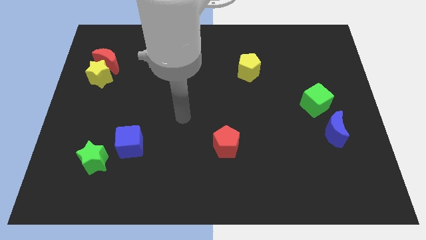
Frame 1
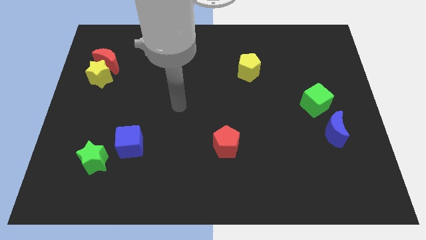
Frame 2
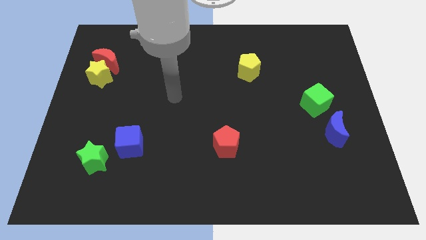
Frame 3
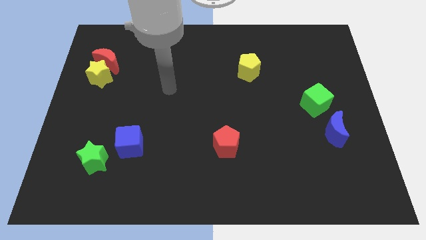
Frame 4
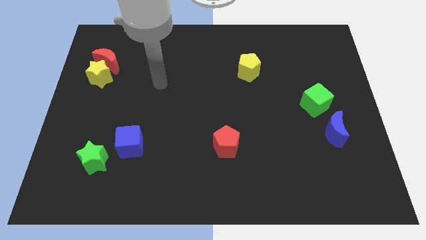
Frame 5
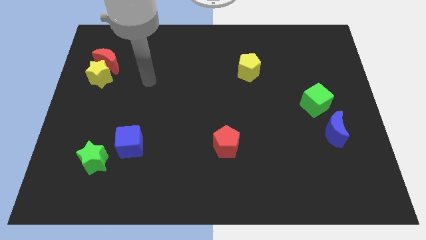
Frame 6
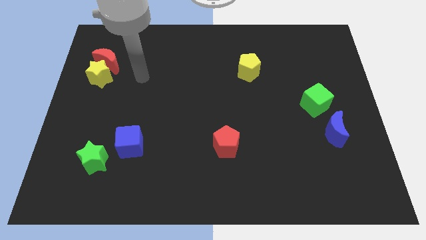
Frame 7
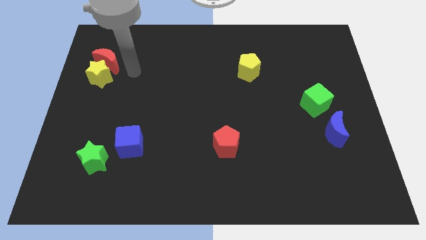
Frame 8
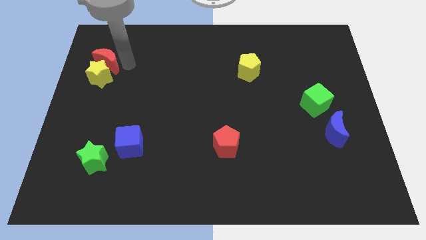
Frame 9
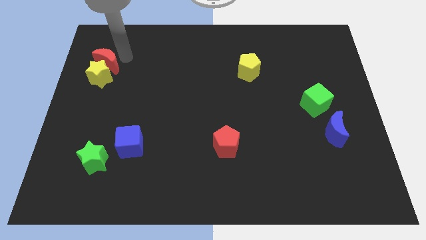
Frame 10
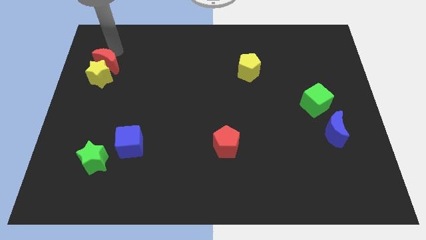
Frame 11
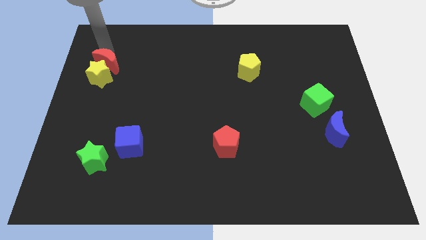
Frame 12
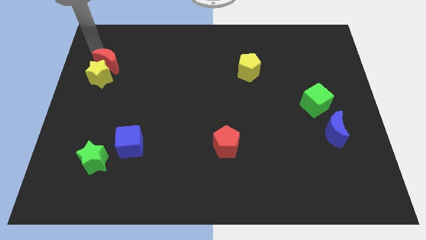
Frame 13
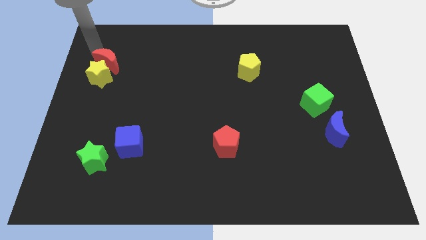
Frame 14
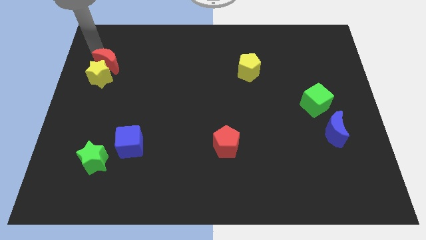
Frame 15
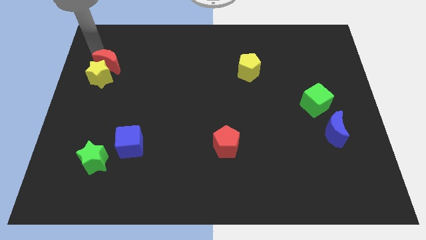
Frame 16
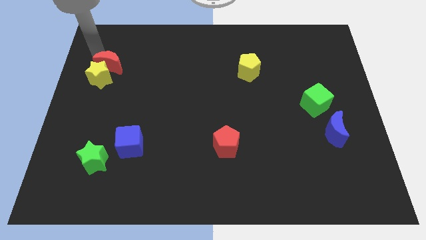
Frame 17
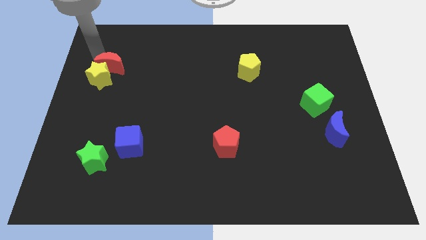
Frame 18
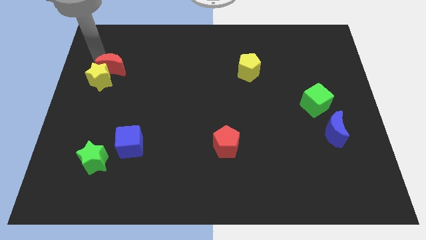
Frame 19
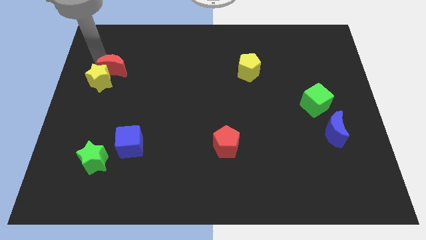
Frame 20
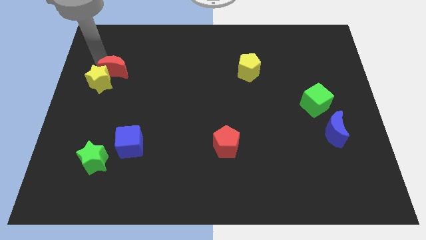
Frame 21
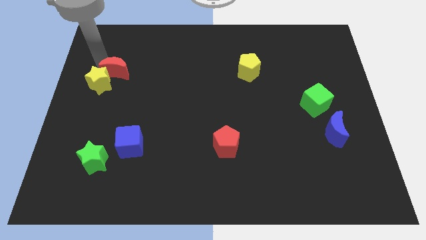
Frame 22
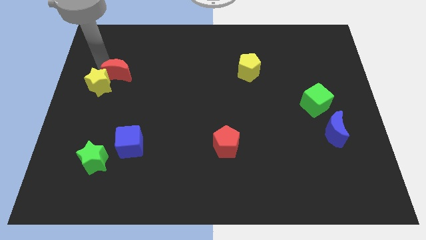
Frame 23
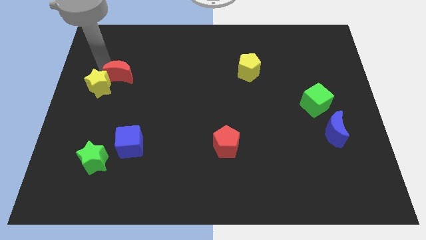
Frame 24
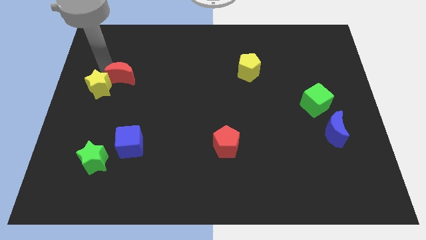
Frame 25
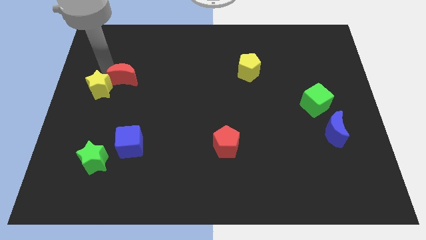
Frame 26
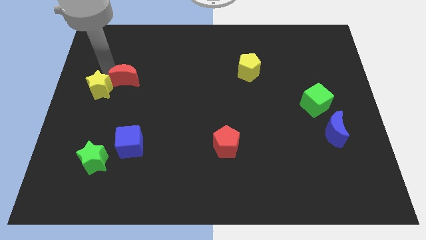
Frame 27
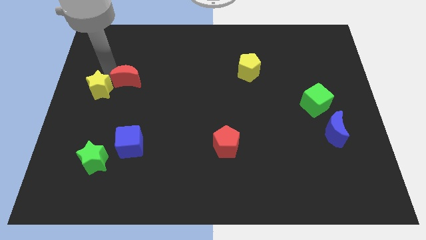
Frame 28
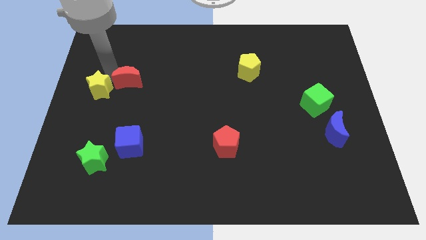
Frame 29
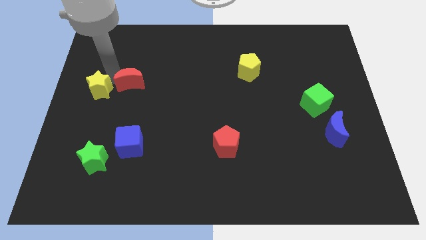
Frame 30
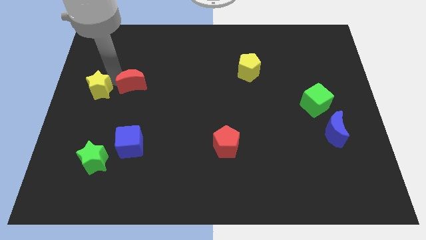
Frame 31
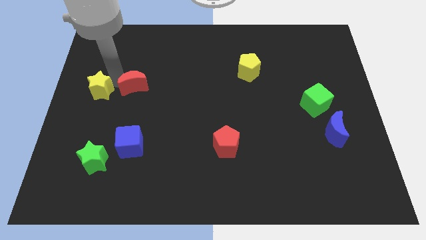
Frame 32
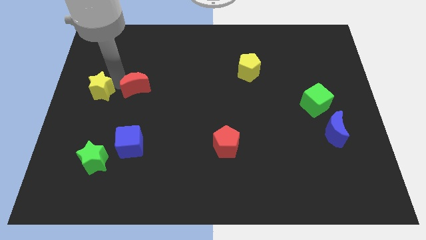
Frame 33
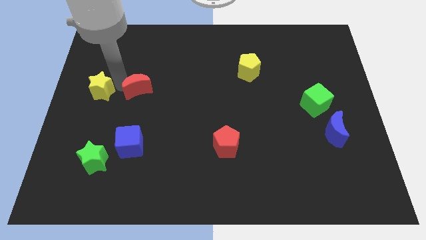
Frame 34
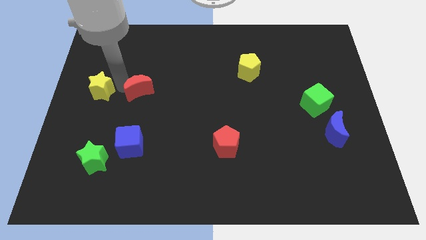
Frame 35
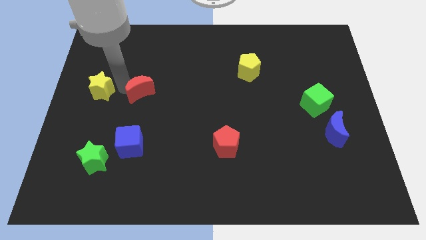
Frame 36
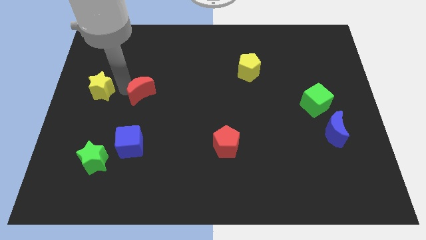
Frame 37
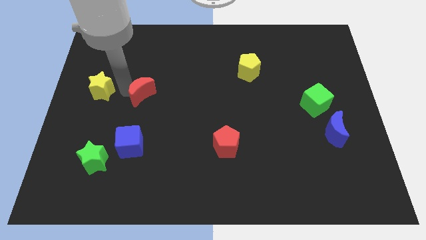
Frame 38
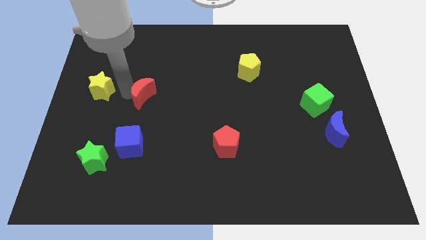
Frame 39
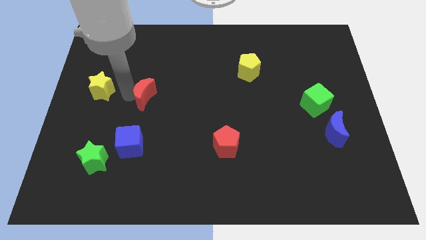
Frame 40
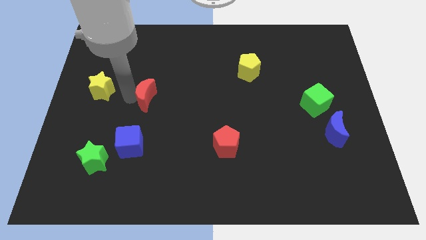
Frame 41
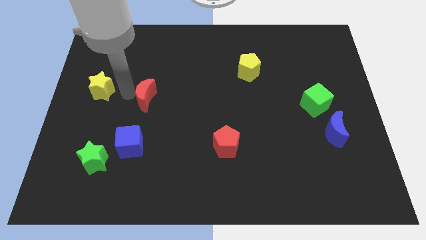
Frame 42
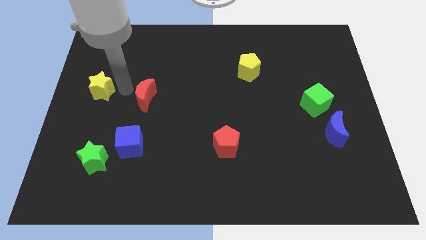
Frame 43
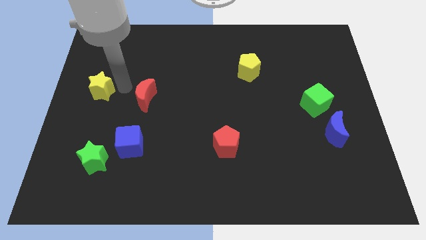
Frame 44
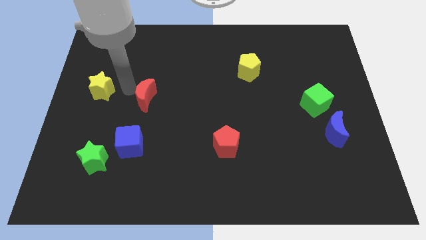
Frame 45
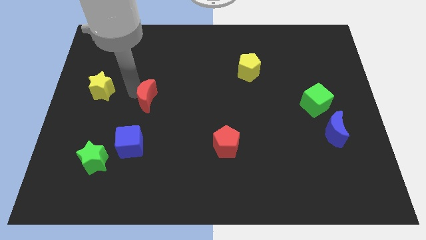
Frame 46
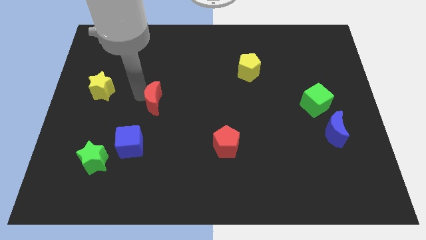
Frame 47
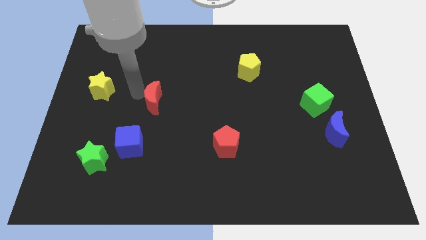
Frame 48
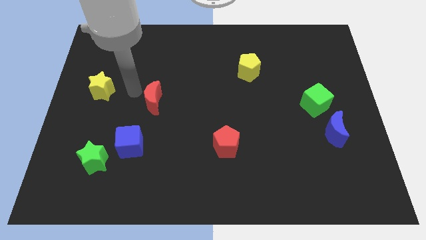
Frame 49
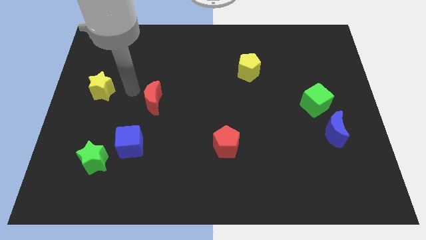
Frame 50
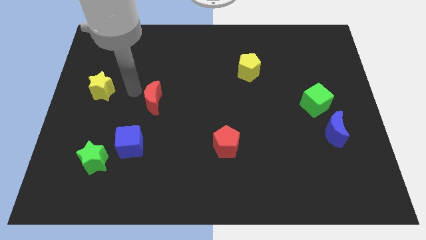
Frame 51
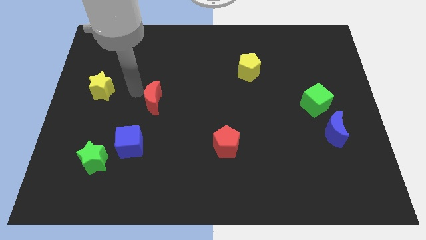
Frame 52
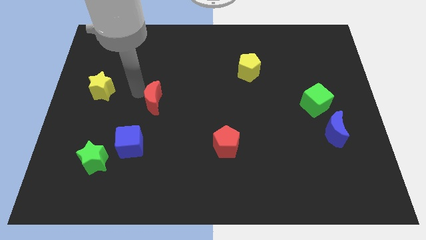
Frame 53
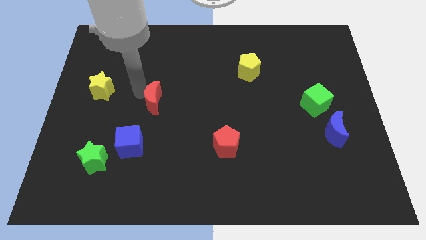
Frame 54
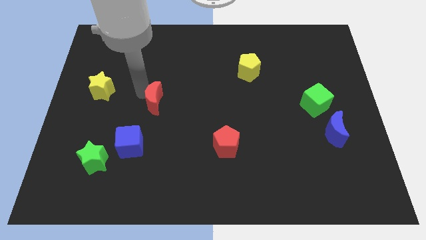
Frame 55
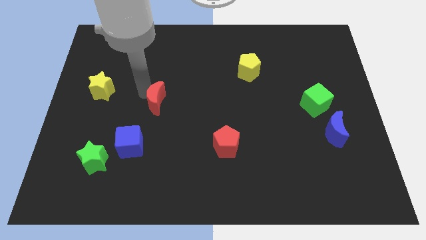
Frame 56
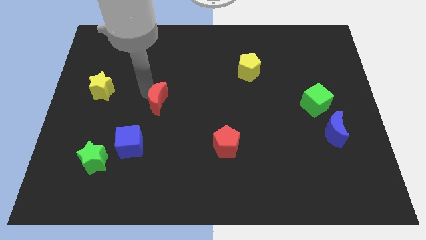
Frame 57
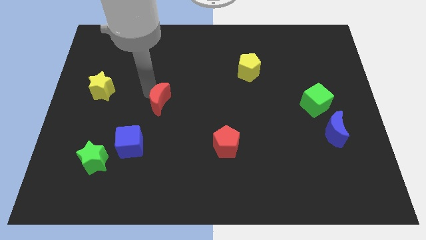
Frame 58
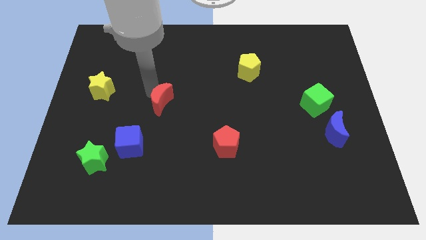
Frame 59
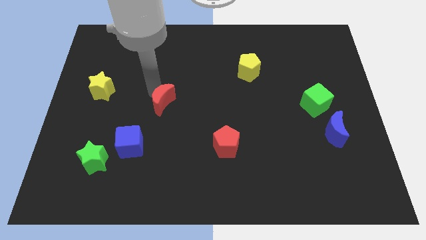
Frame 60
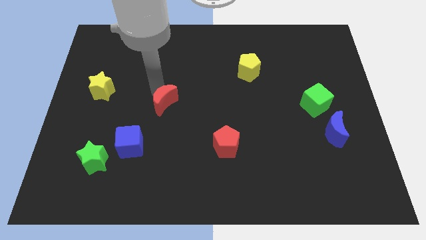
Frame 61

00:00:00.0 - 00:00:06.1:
push the red moon down and to the right

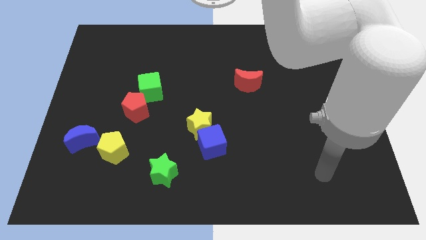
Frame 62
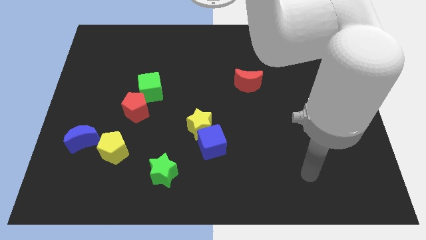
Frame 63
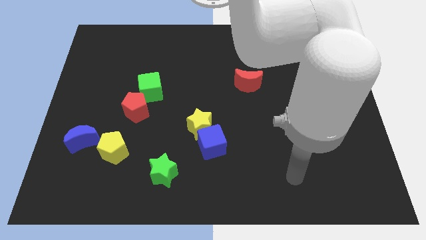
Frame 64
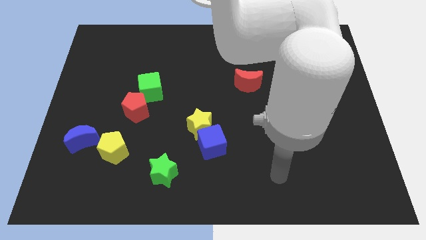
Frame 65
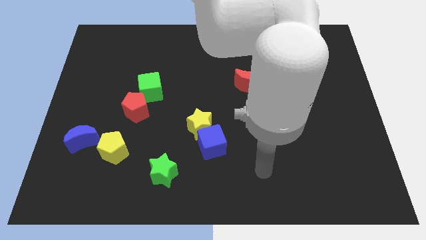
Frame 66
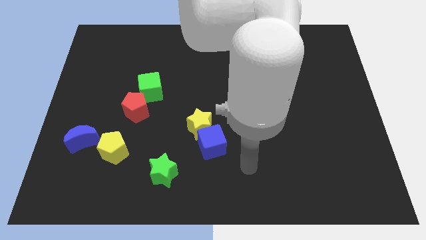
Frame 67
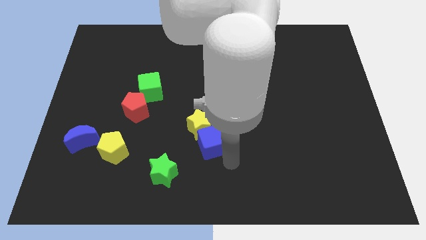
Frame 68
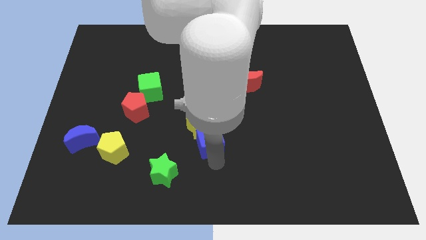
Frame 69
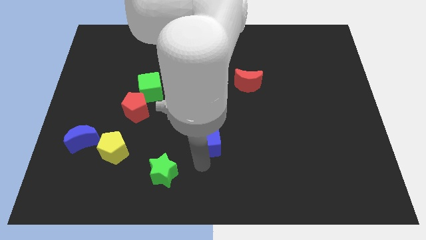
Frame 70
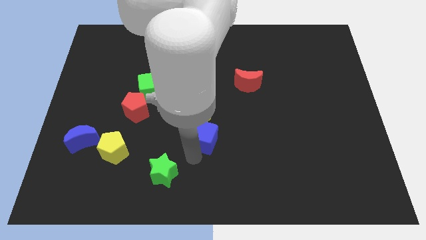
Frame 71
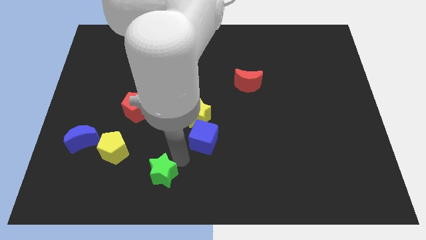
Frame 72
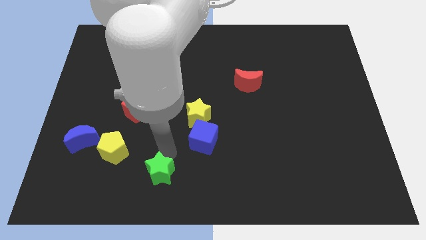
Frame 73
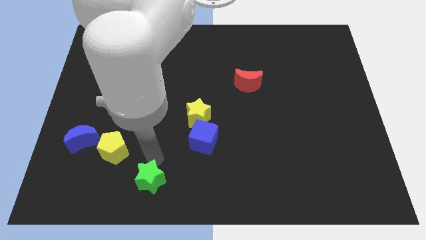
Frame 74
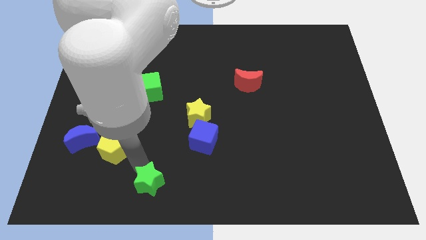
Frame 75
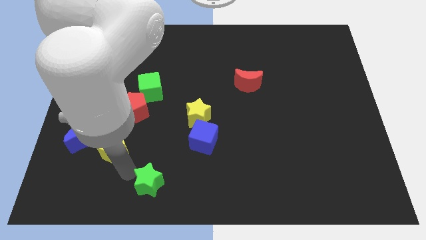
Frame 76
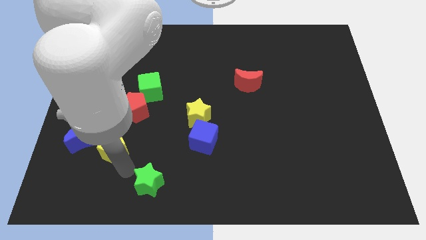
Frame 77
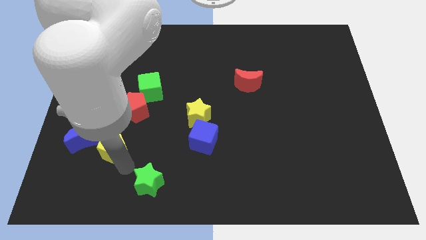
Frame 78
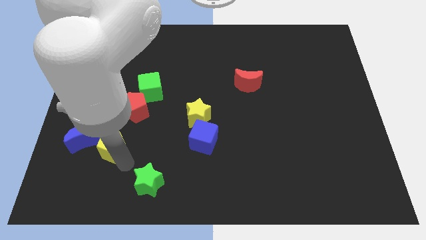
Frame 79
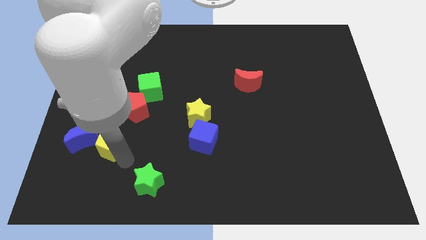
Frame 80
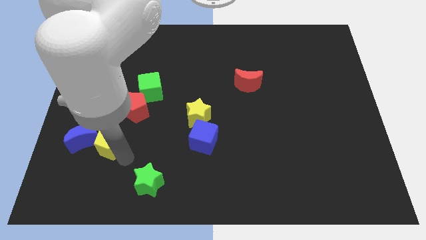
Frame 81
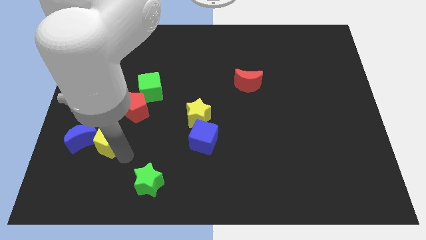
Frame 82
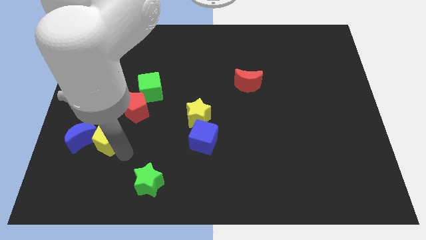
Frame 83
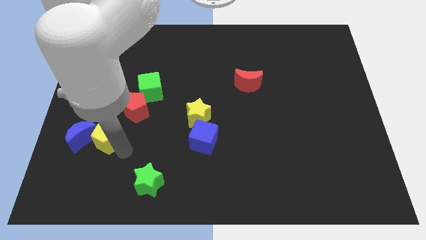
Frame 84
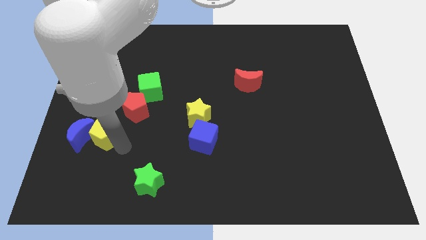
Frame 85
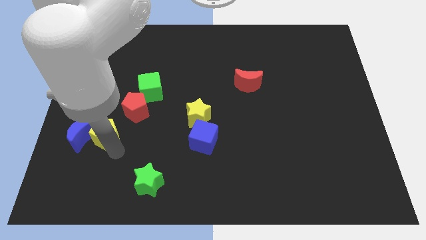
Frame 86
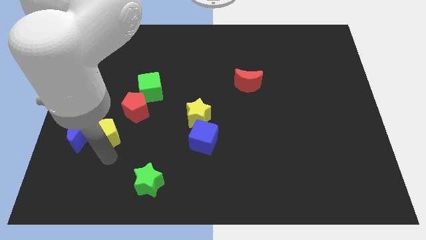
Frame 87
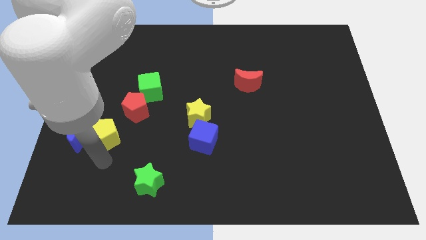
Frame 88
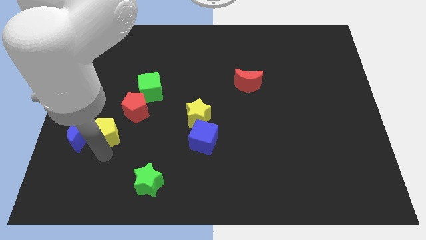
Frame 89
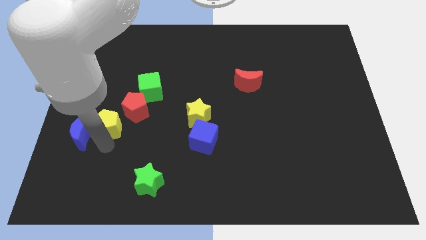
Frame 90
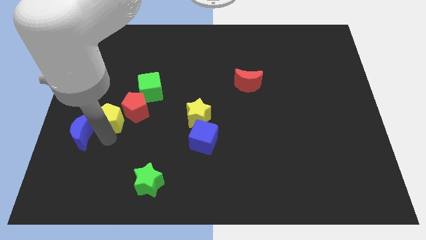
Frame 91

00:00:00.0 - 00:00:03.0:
slightly push the yellow pentagon up
